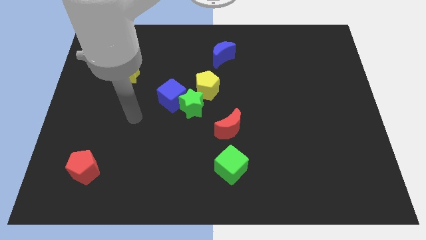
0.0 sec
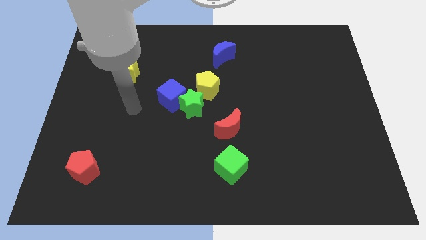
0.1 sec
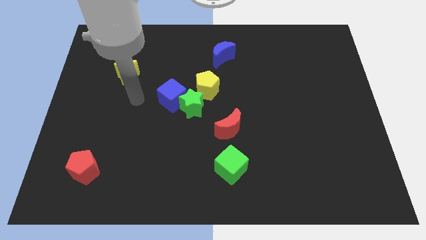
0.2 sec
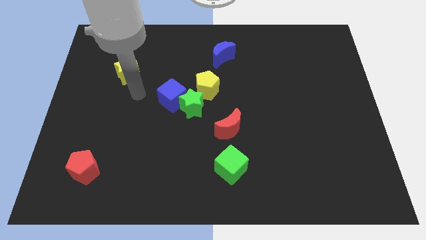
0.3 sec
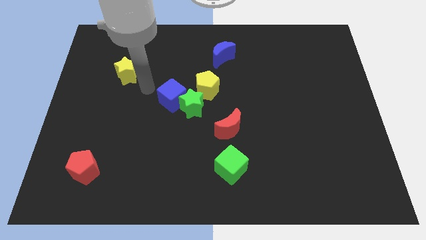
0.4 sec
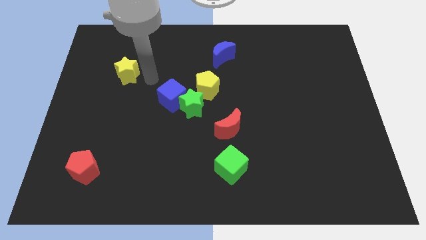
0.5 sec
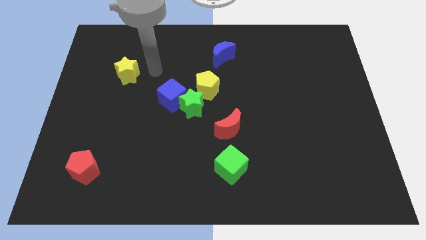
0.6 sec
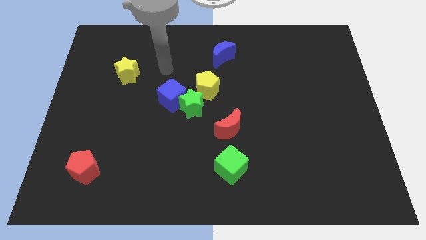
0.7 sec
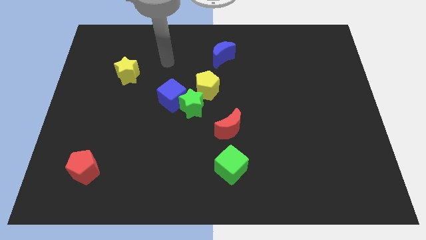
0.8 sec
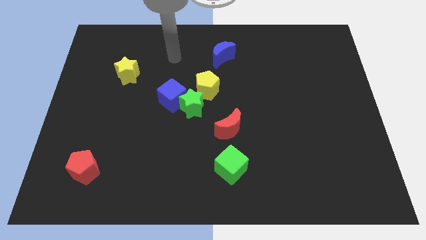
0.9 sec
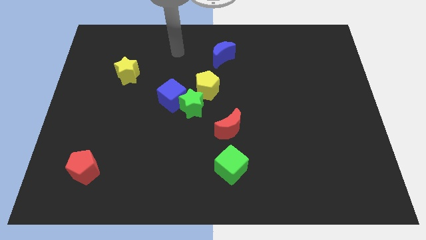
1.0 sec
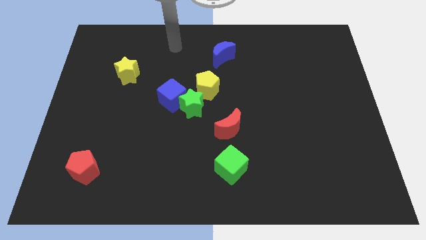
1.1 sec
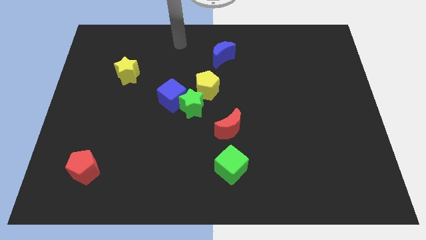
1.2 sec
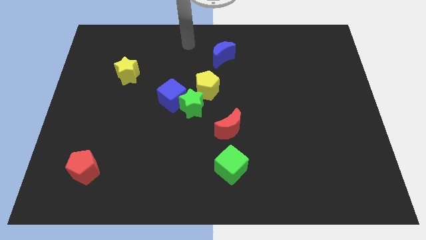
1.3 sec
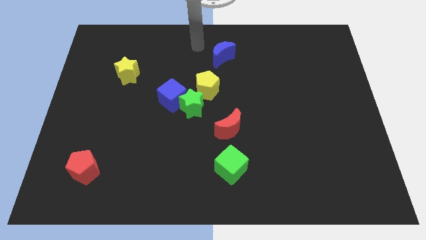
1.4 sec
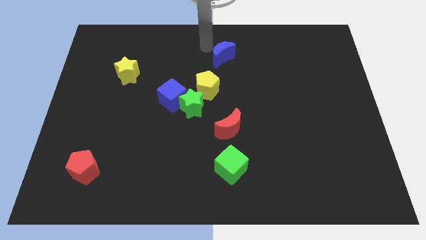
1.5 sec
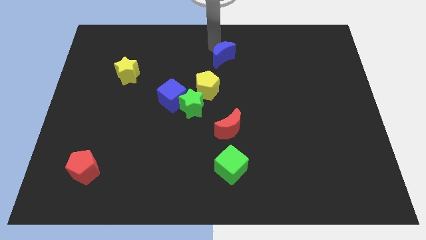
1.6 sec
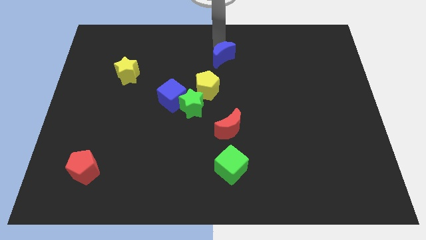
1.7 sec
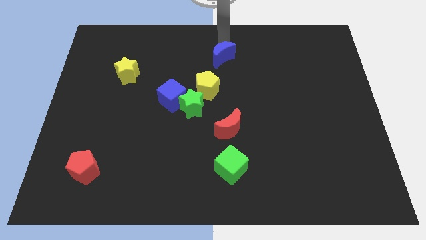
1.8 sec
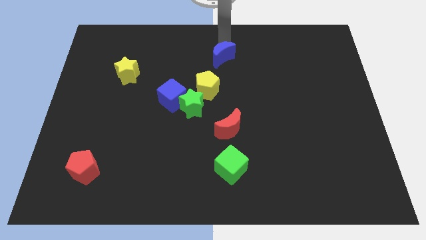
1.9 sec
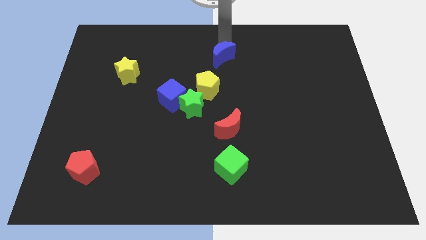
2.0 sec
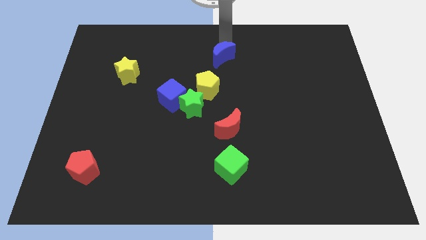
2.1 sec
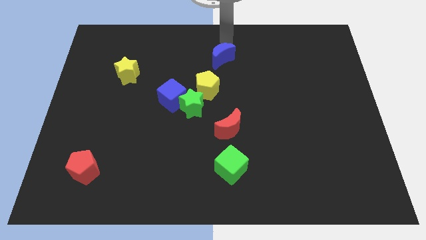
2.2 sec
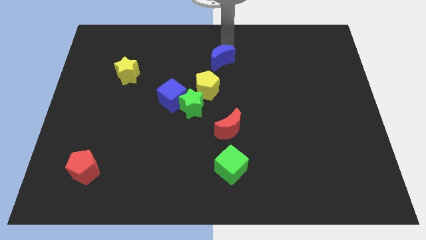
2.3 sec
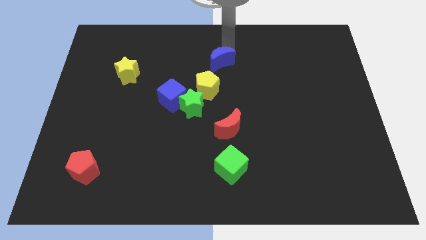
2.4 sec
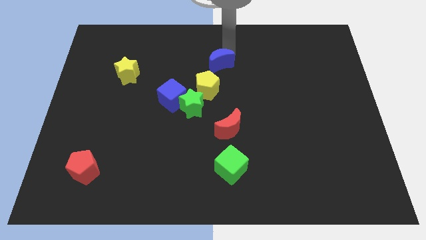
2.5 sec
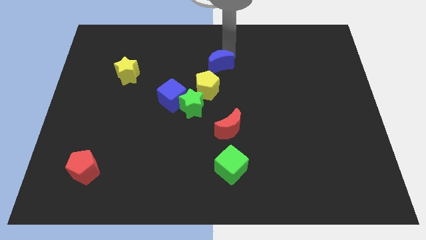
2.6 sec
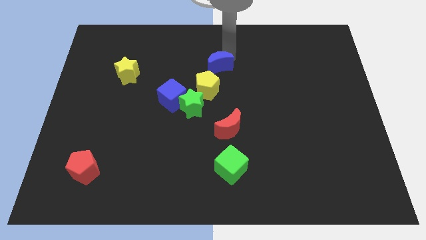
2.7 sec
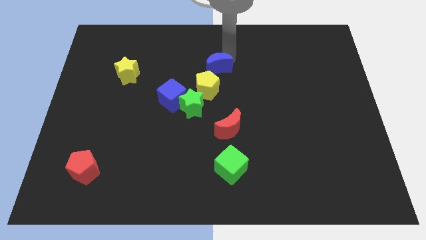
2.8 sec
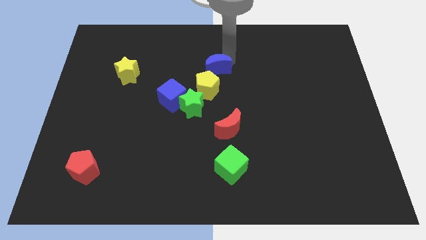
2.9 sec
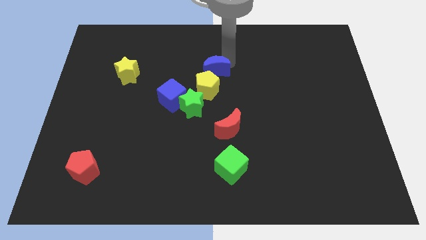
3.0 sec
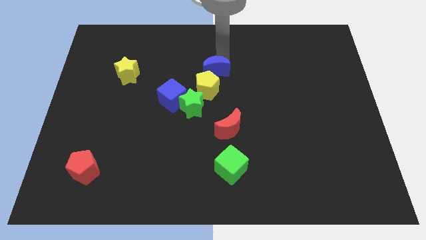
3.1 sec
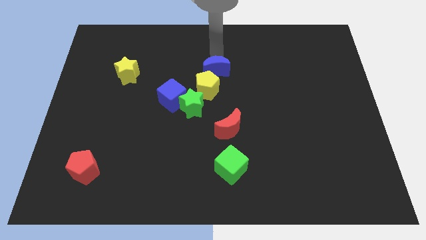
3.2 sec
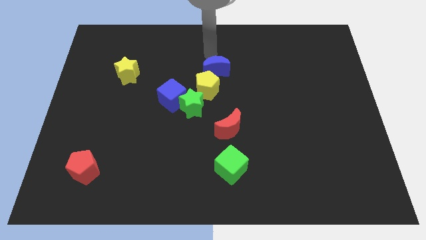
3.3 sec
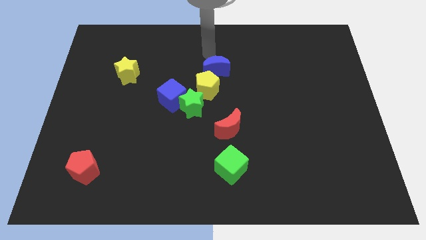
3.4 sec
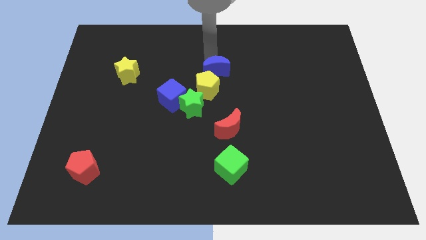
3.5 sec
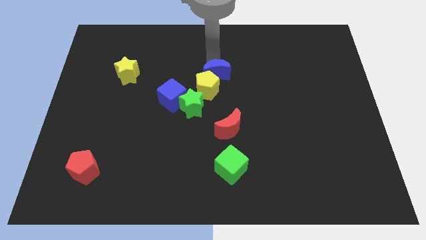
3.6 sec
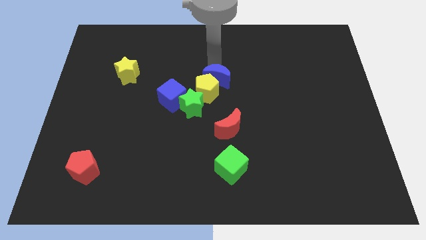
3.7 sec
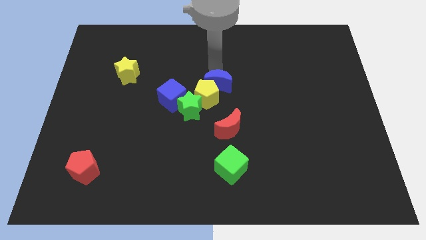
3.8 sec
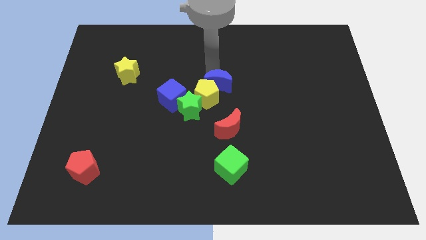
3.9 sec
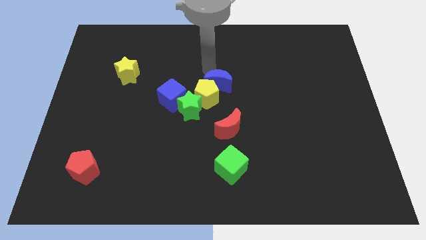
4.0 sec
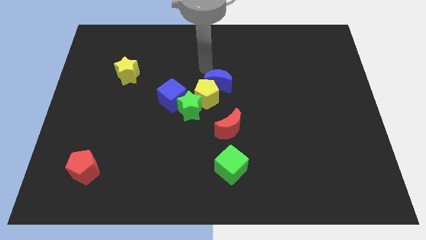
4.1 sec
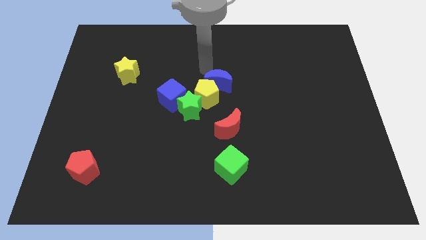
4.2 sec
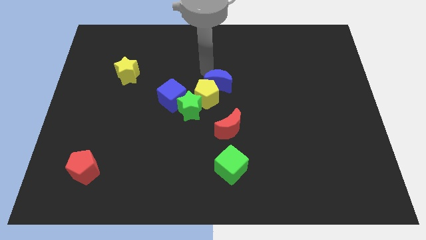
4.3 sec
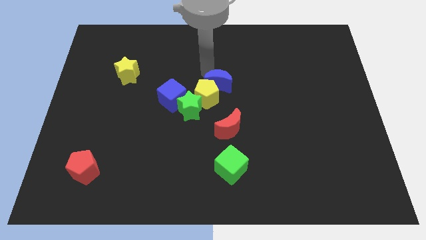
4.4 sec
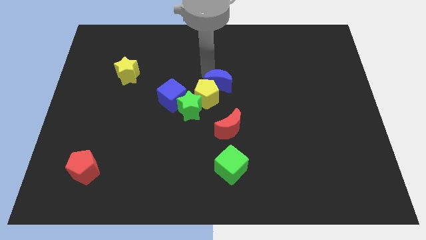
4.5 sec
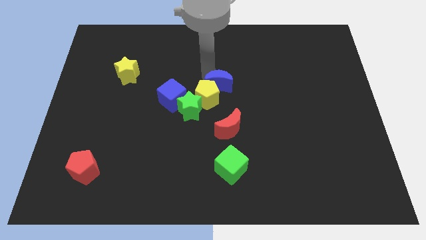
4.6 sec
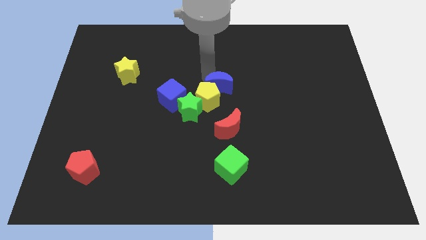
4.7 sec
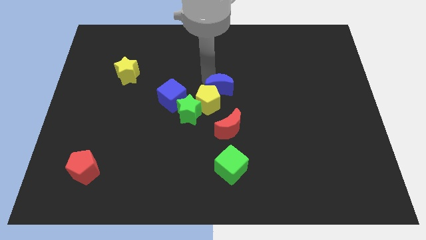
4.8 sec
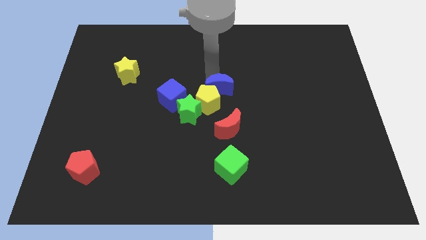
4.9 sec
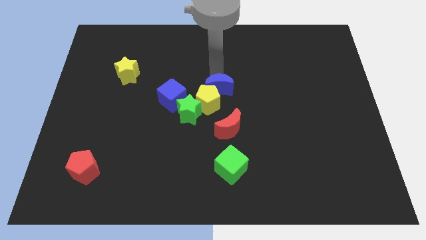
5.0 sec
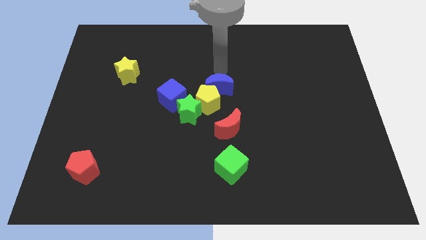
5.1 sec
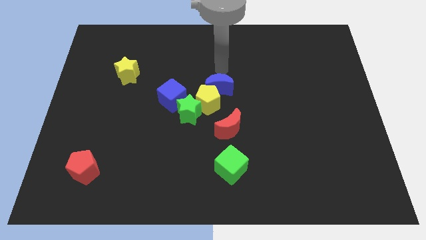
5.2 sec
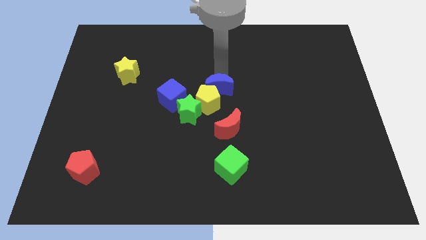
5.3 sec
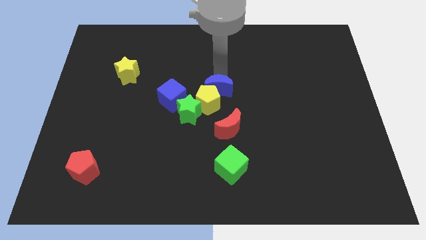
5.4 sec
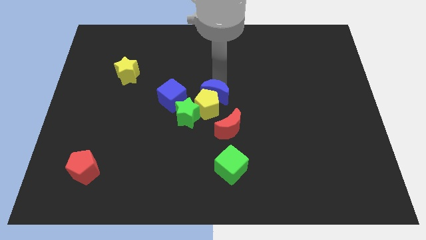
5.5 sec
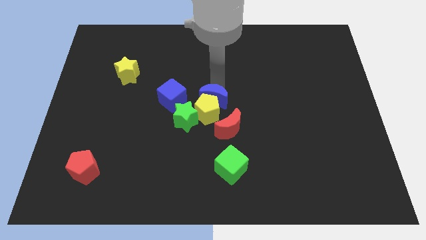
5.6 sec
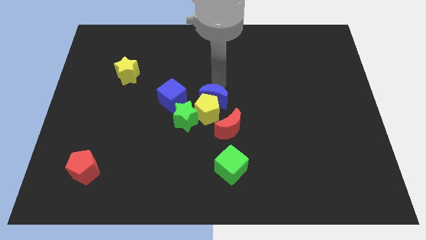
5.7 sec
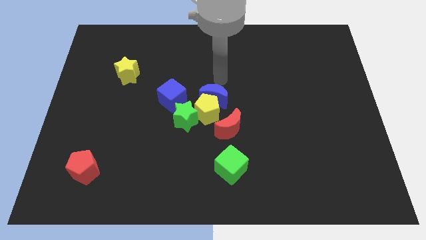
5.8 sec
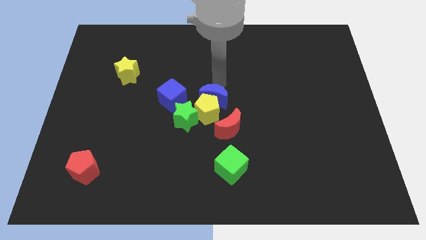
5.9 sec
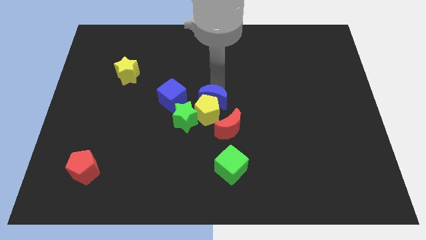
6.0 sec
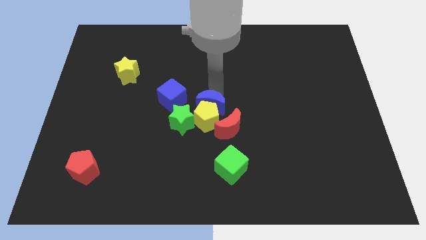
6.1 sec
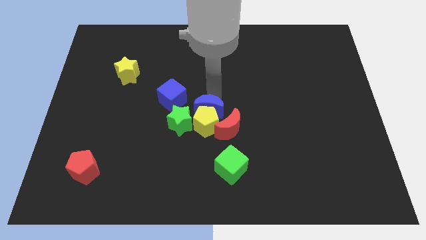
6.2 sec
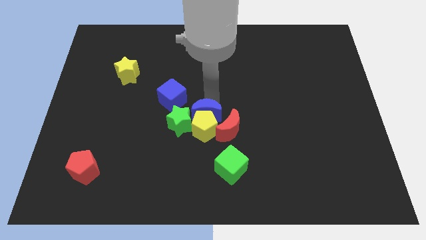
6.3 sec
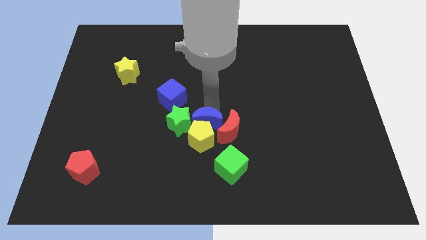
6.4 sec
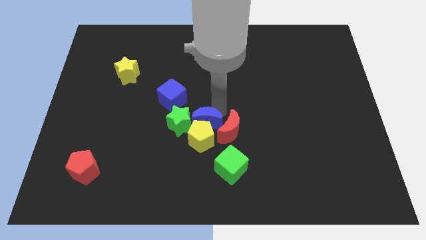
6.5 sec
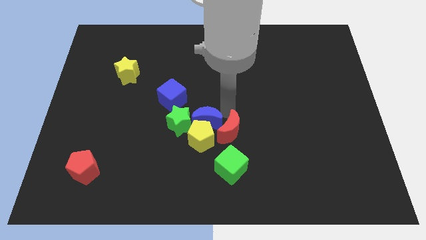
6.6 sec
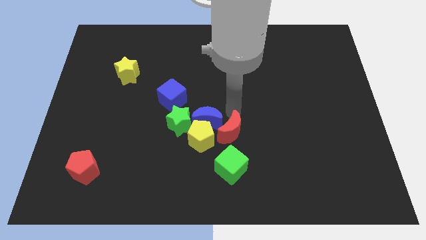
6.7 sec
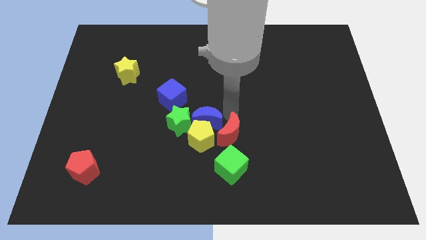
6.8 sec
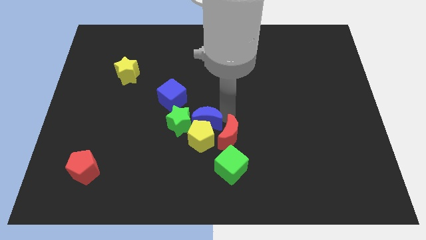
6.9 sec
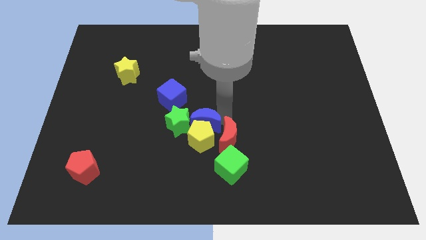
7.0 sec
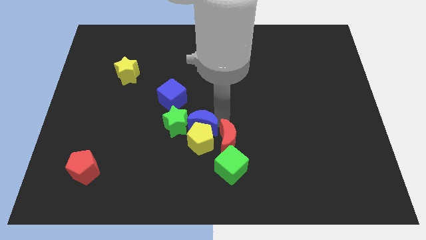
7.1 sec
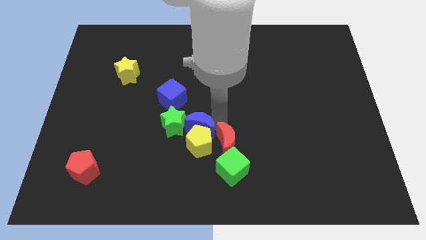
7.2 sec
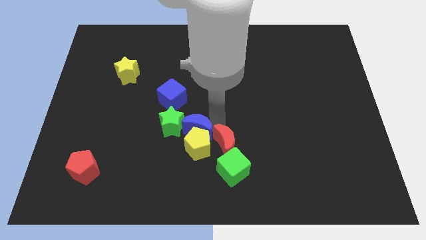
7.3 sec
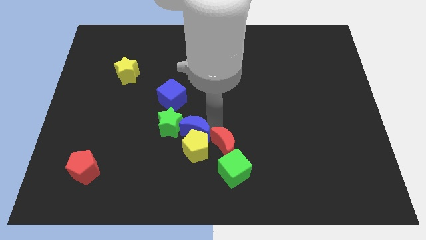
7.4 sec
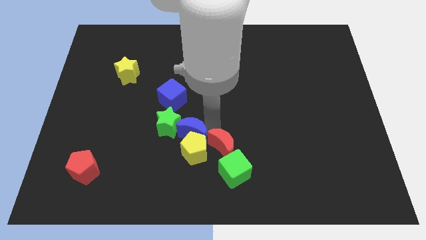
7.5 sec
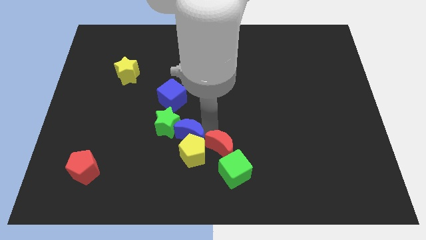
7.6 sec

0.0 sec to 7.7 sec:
slide the blue moon to the bottom of the blue cube
